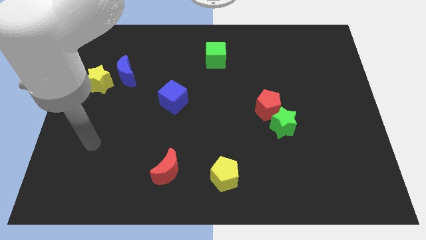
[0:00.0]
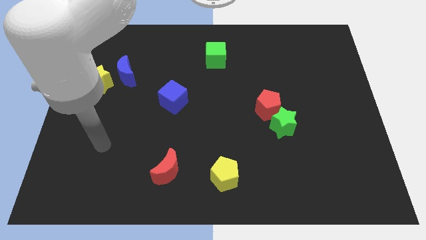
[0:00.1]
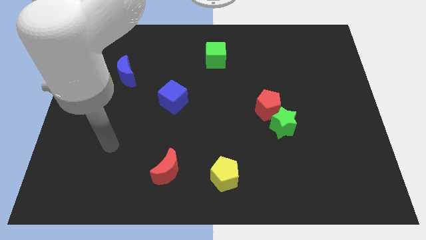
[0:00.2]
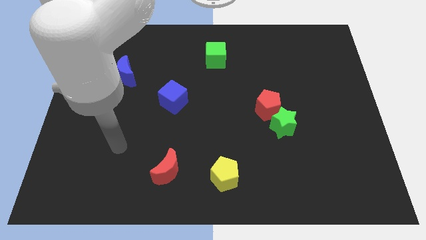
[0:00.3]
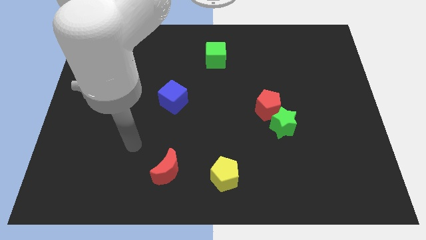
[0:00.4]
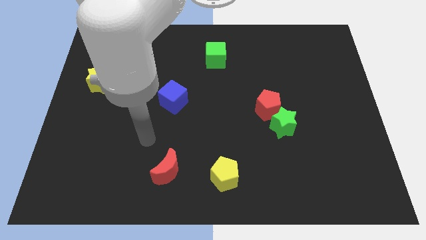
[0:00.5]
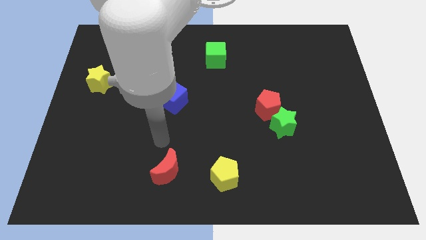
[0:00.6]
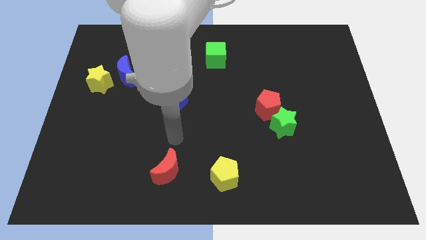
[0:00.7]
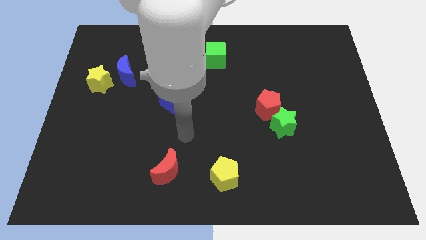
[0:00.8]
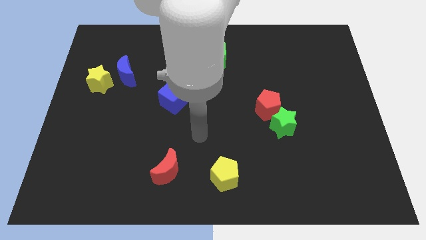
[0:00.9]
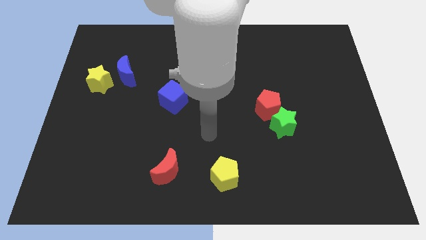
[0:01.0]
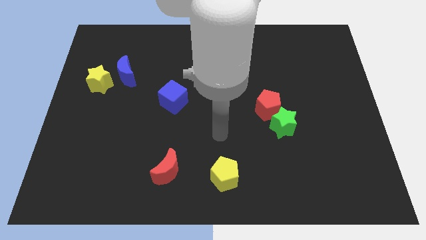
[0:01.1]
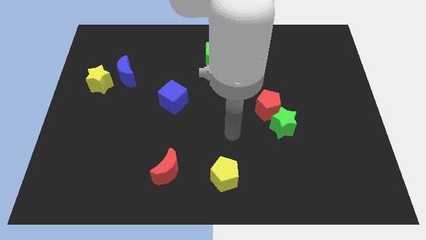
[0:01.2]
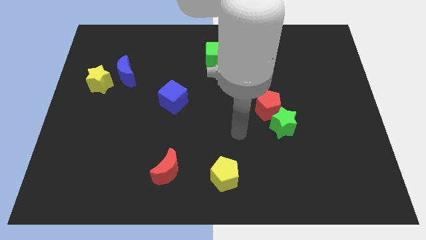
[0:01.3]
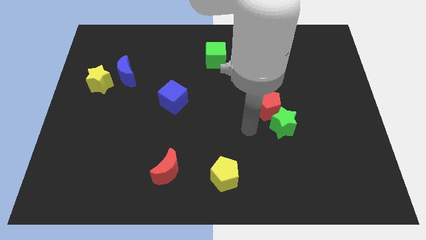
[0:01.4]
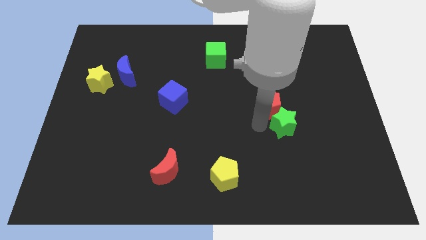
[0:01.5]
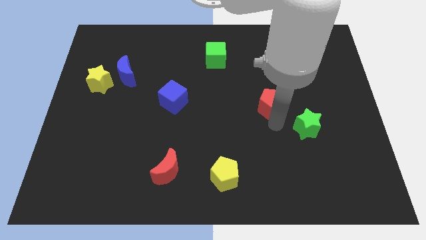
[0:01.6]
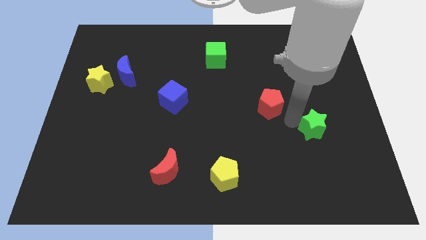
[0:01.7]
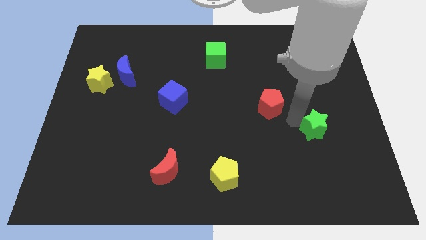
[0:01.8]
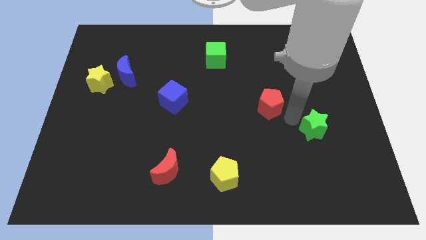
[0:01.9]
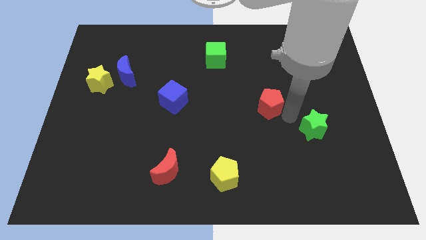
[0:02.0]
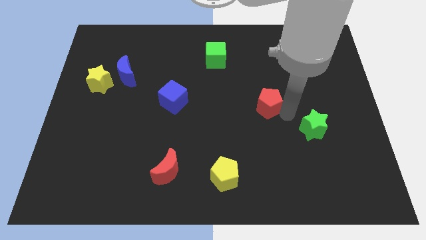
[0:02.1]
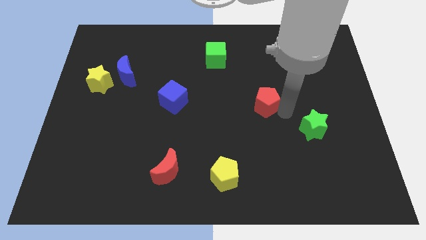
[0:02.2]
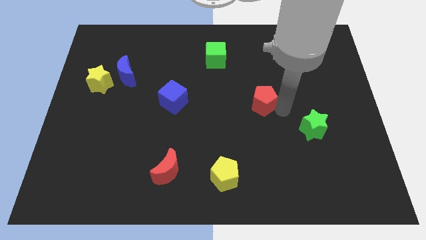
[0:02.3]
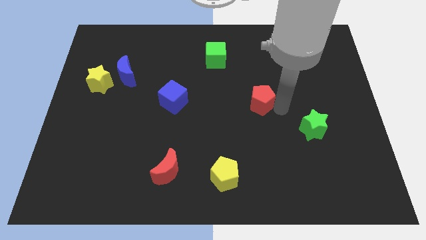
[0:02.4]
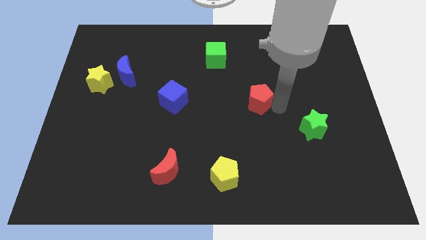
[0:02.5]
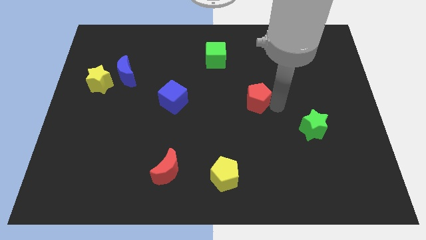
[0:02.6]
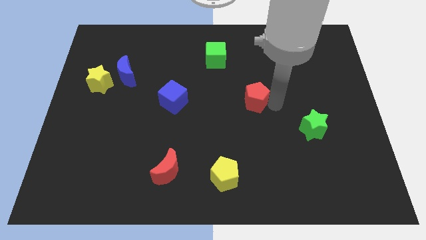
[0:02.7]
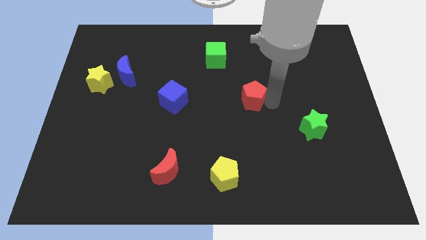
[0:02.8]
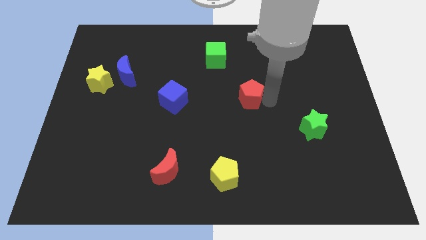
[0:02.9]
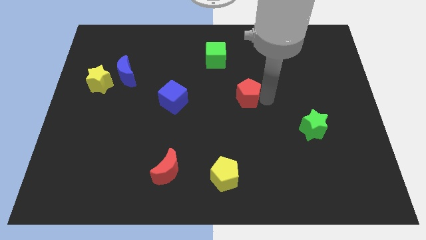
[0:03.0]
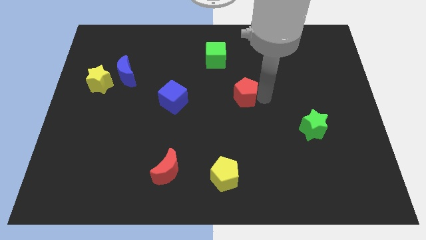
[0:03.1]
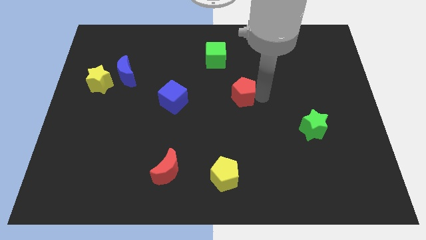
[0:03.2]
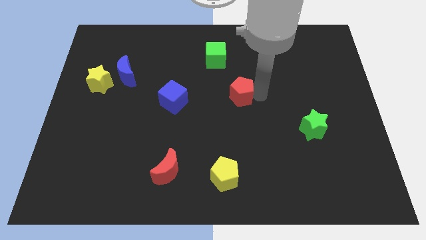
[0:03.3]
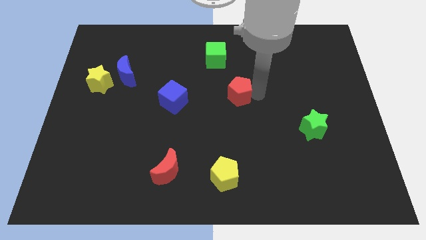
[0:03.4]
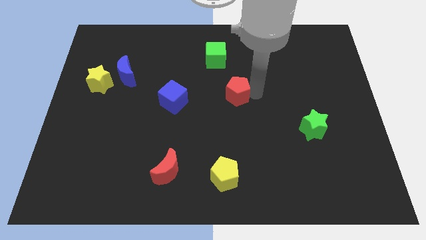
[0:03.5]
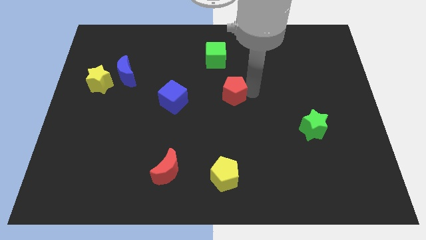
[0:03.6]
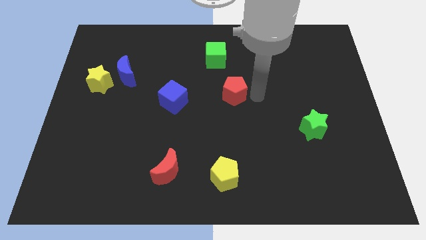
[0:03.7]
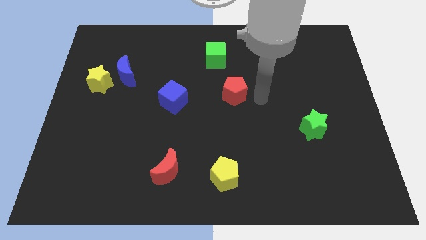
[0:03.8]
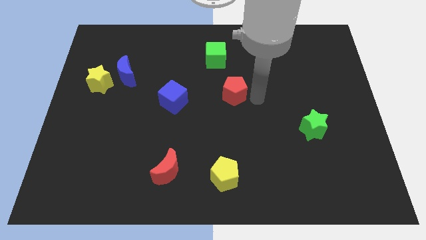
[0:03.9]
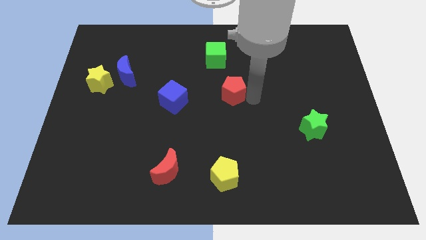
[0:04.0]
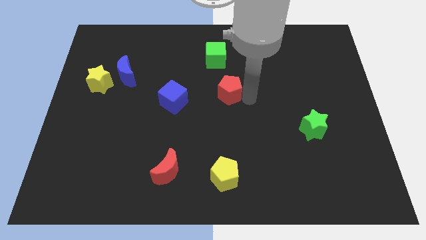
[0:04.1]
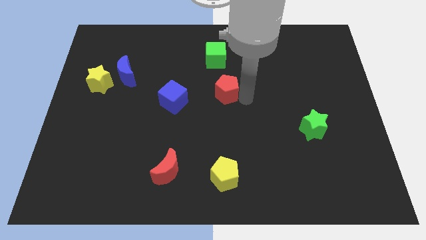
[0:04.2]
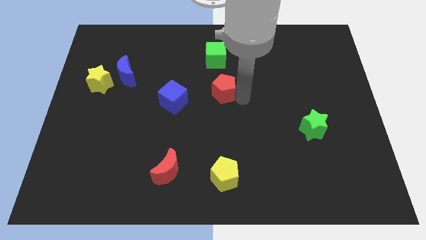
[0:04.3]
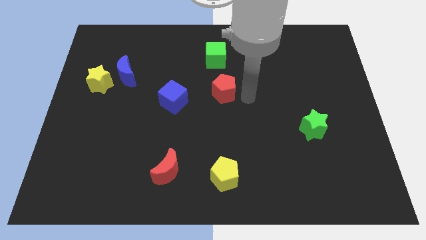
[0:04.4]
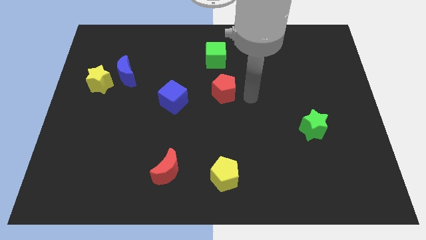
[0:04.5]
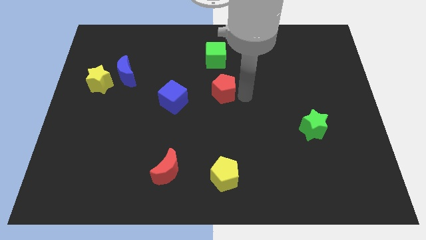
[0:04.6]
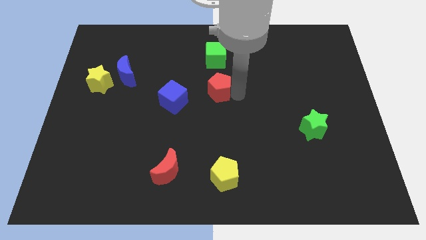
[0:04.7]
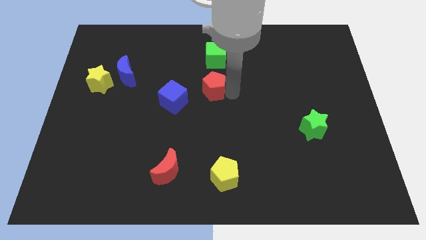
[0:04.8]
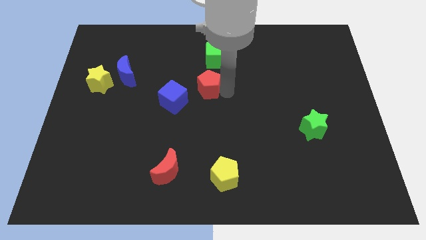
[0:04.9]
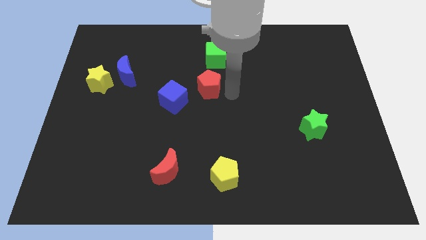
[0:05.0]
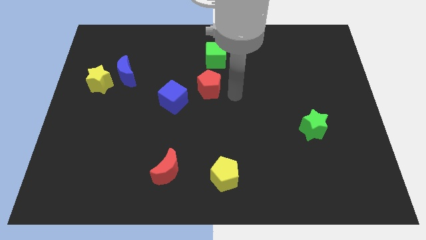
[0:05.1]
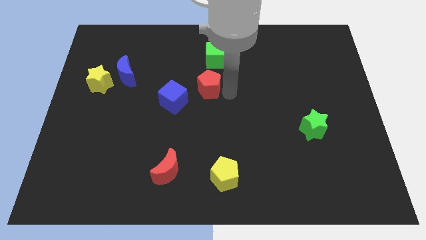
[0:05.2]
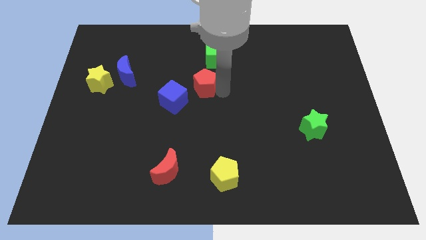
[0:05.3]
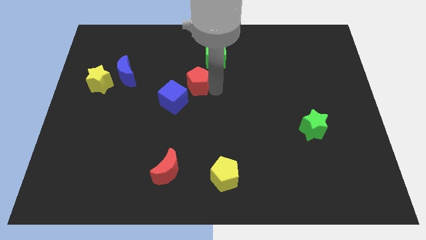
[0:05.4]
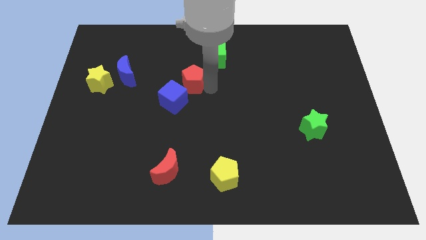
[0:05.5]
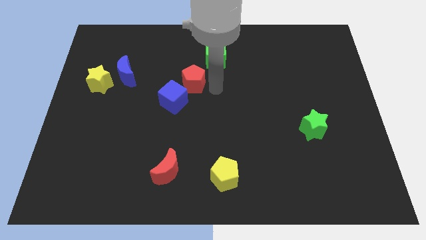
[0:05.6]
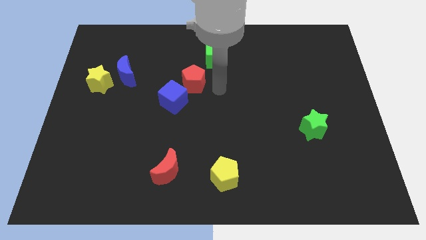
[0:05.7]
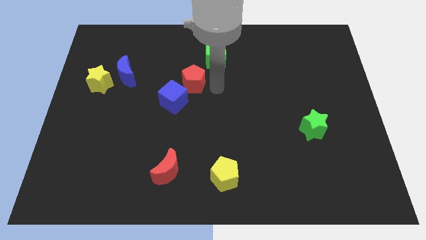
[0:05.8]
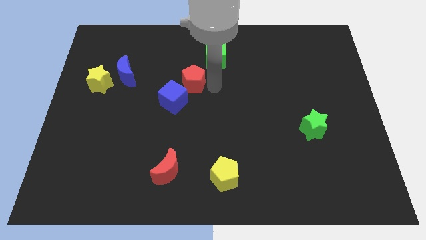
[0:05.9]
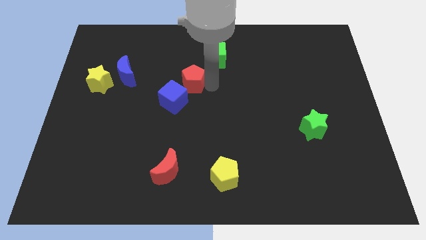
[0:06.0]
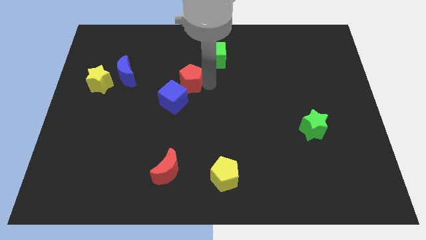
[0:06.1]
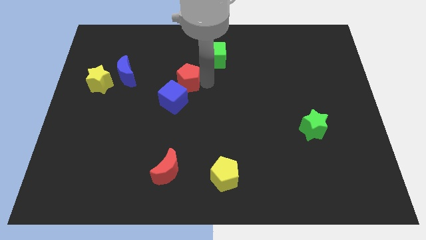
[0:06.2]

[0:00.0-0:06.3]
slide the red pentagon to the right of the blue moon

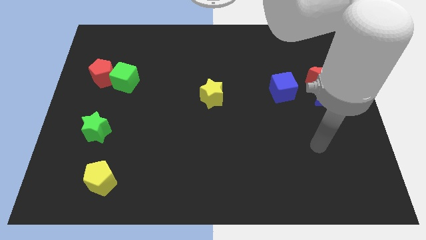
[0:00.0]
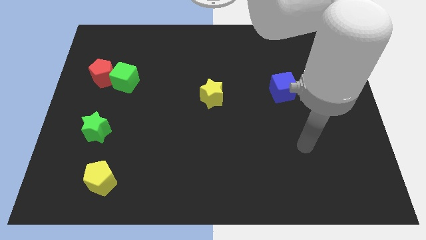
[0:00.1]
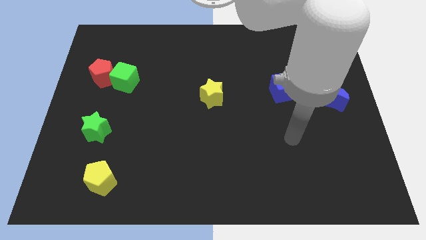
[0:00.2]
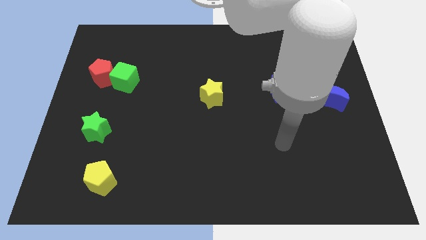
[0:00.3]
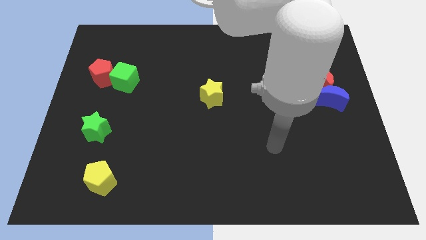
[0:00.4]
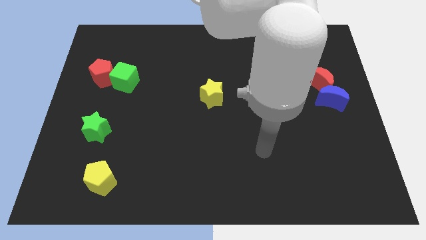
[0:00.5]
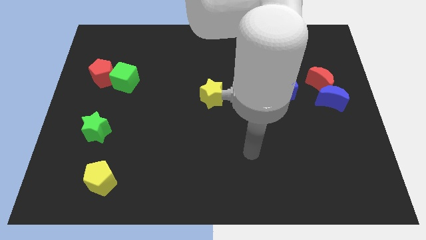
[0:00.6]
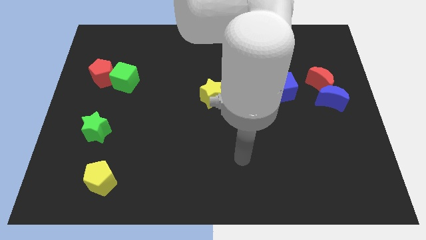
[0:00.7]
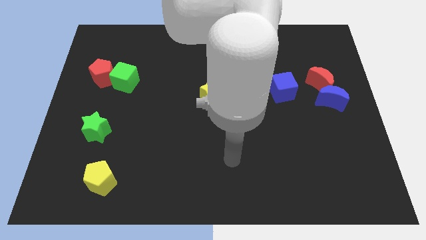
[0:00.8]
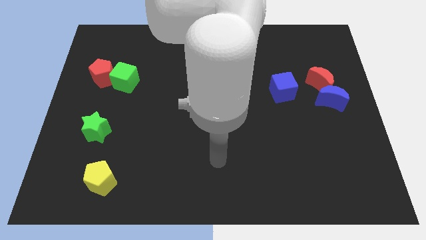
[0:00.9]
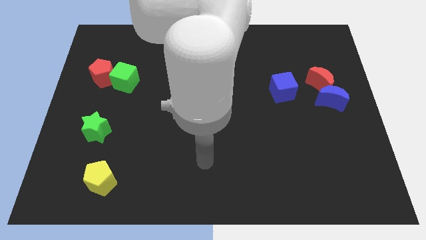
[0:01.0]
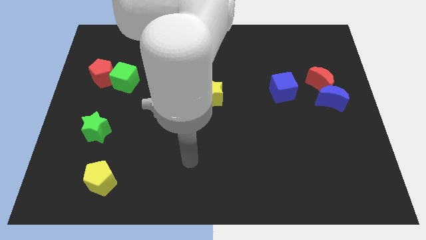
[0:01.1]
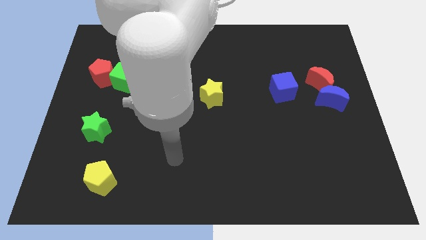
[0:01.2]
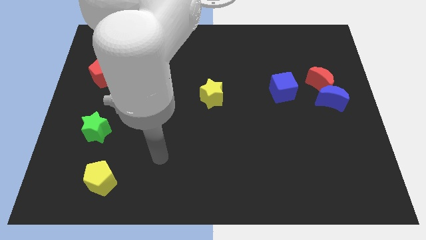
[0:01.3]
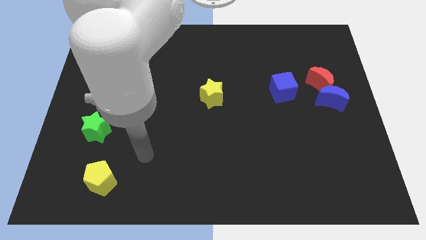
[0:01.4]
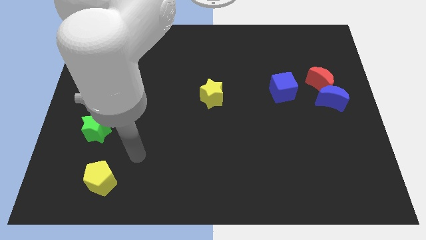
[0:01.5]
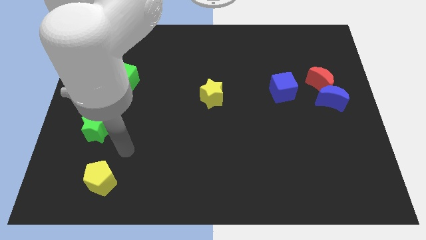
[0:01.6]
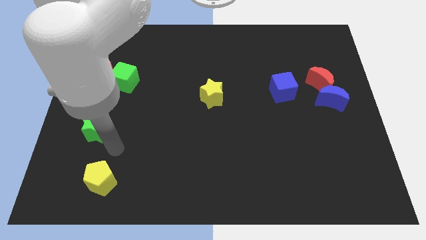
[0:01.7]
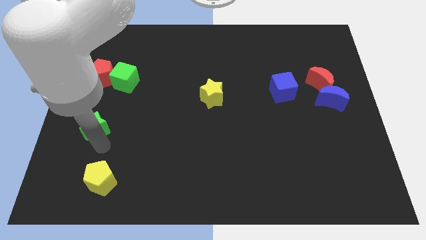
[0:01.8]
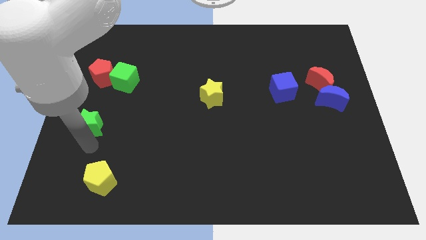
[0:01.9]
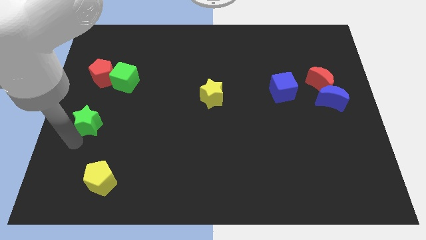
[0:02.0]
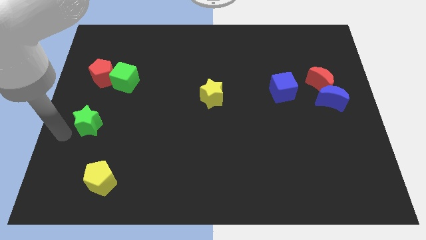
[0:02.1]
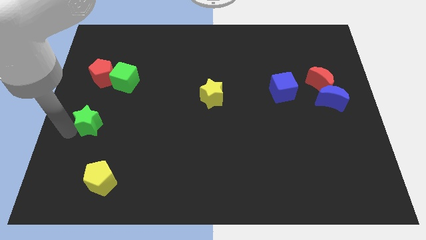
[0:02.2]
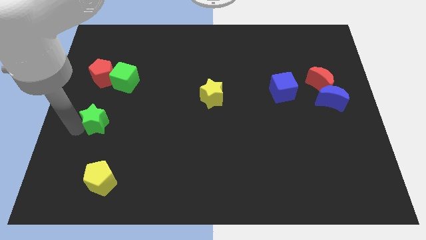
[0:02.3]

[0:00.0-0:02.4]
put the green star to the bottom side of the green cube
